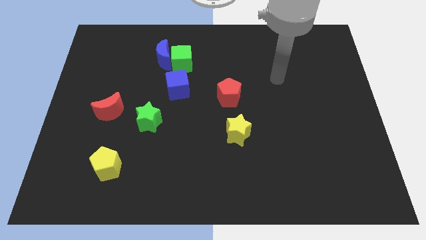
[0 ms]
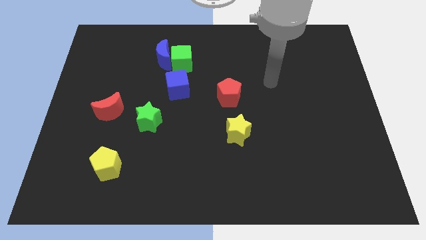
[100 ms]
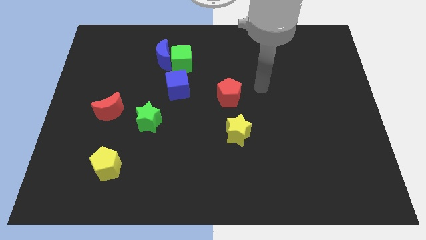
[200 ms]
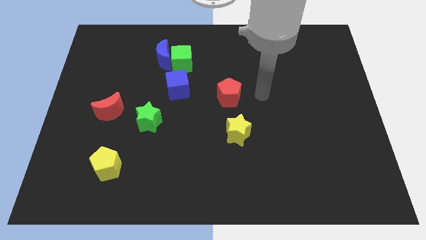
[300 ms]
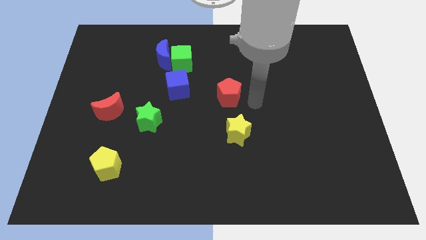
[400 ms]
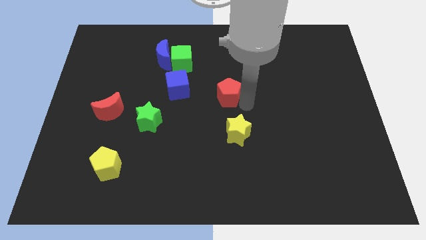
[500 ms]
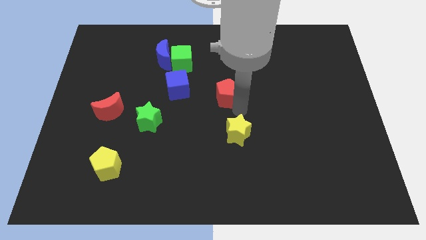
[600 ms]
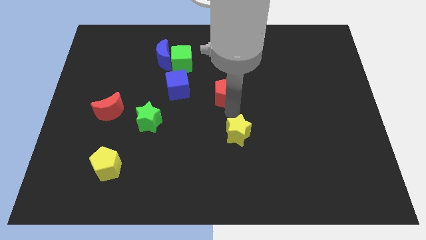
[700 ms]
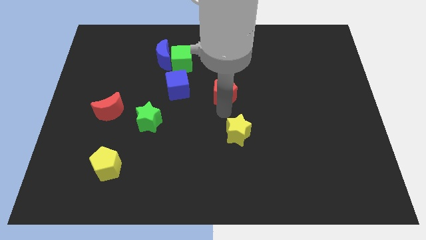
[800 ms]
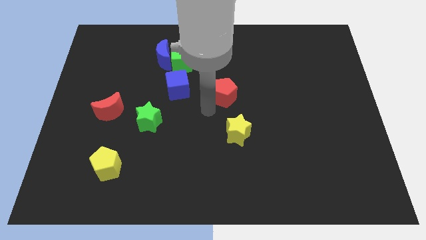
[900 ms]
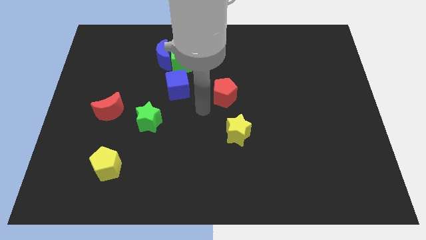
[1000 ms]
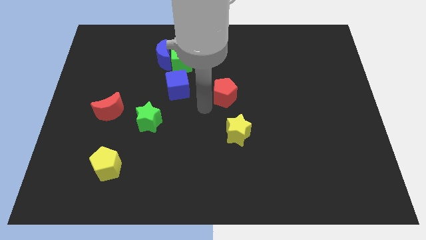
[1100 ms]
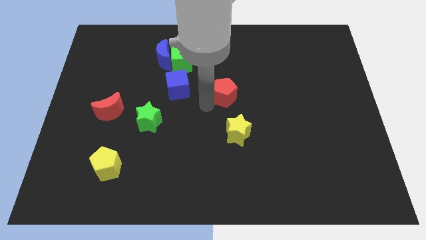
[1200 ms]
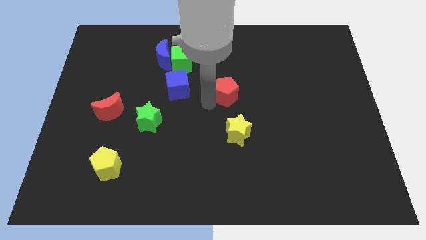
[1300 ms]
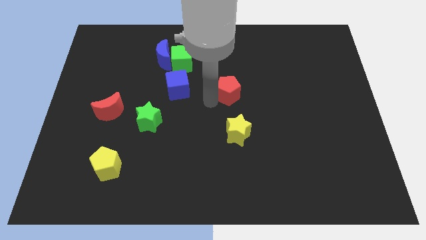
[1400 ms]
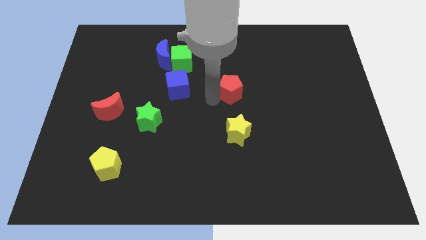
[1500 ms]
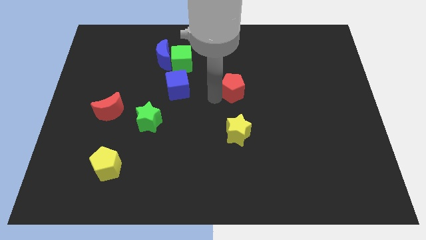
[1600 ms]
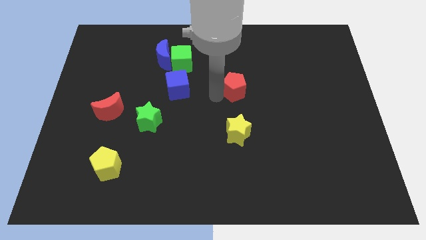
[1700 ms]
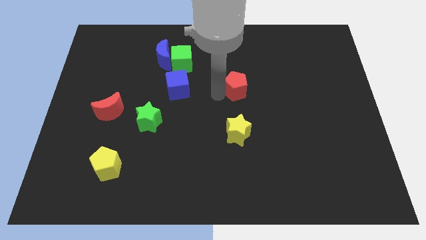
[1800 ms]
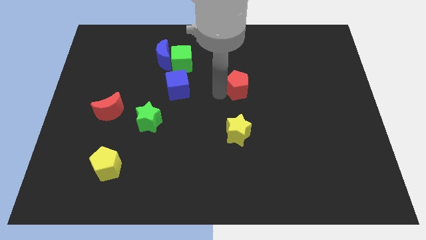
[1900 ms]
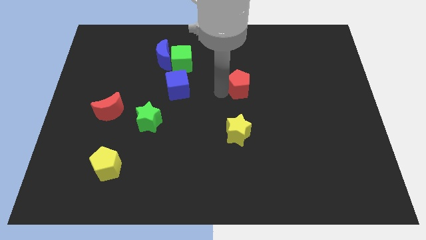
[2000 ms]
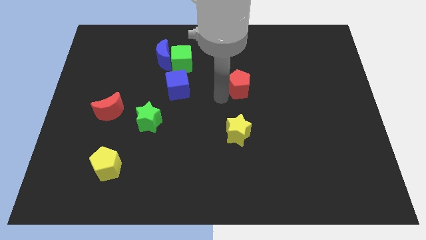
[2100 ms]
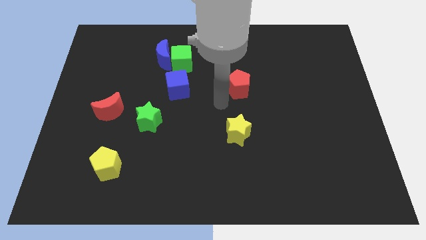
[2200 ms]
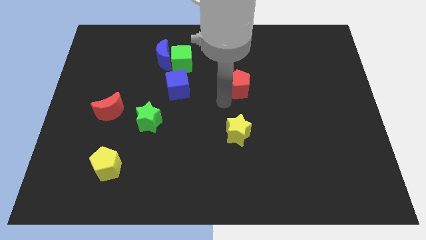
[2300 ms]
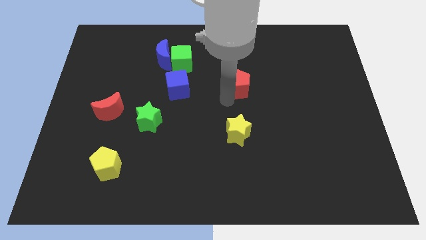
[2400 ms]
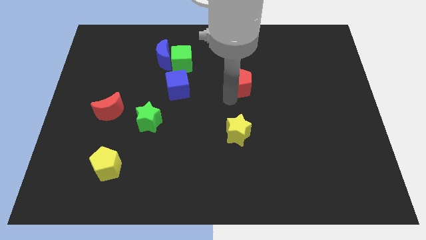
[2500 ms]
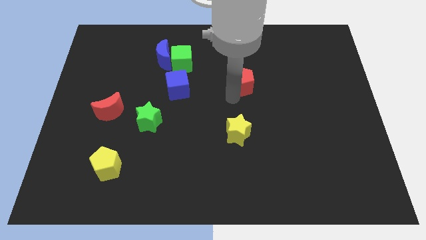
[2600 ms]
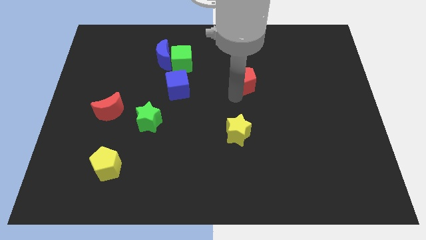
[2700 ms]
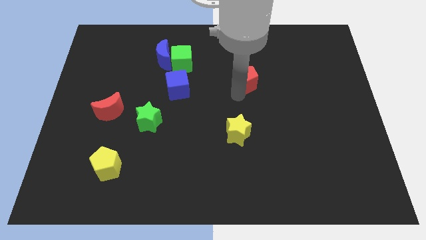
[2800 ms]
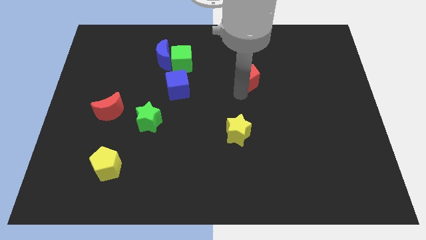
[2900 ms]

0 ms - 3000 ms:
push the red pentagon up and right a little bit

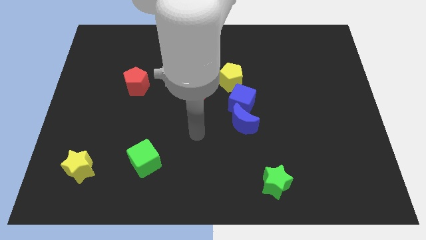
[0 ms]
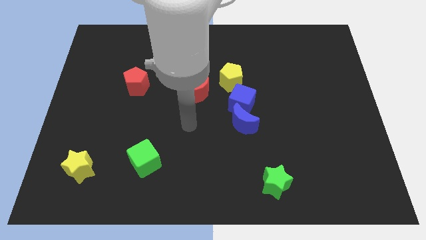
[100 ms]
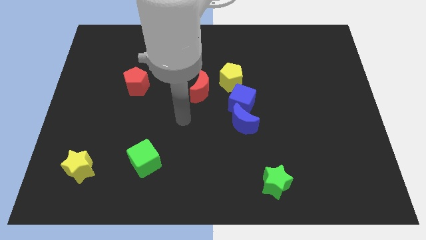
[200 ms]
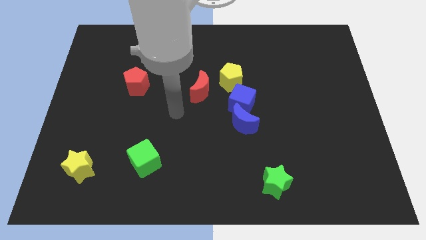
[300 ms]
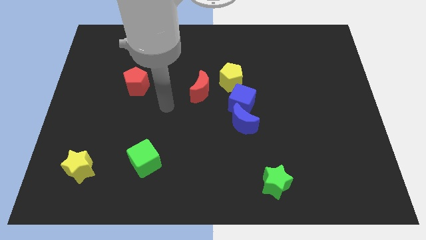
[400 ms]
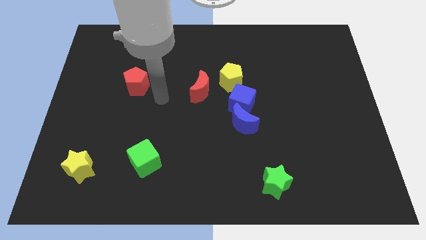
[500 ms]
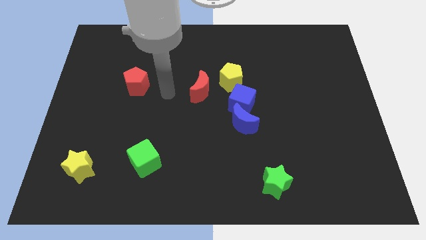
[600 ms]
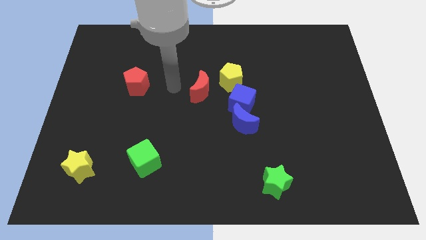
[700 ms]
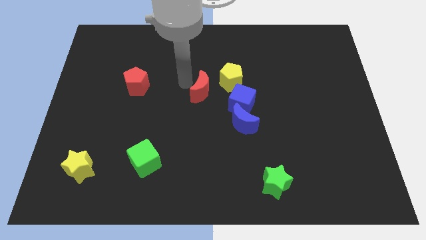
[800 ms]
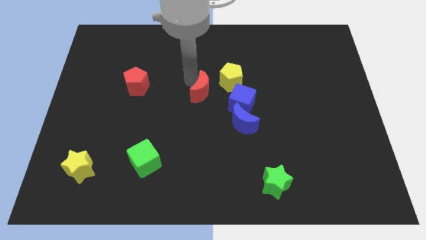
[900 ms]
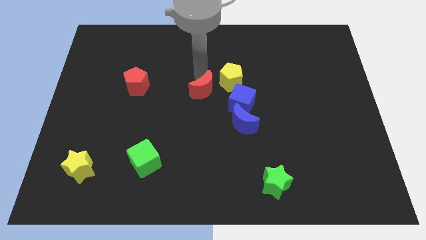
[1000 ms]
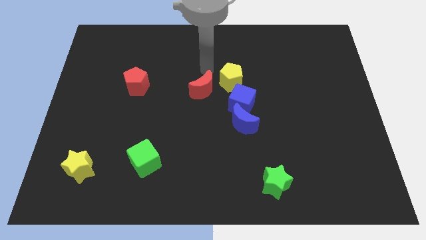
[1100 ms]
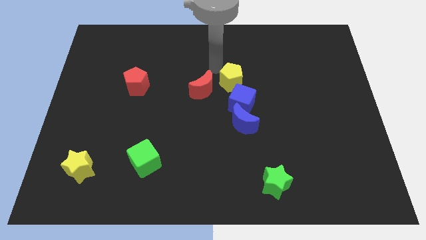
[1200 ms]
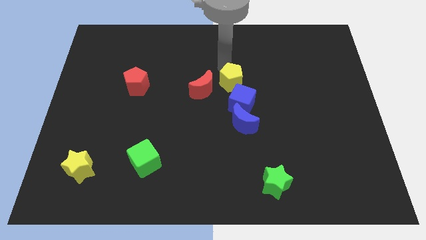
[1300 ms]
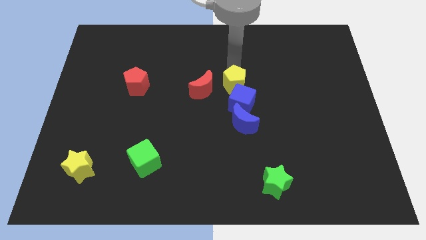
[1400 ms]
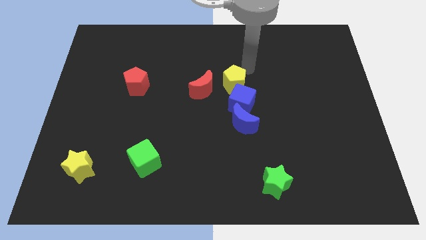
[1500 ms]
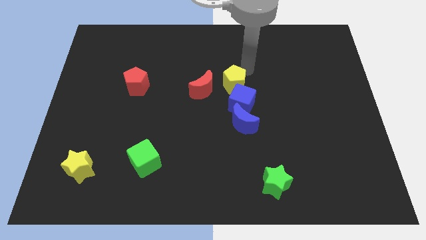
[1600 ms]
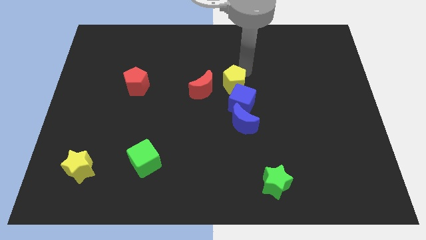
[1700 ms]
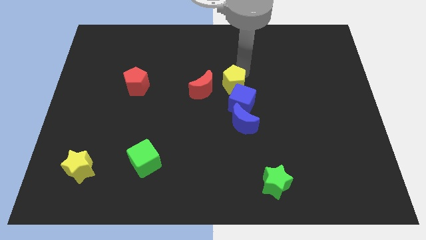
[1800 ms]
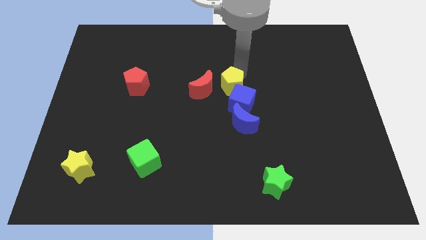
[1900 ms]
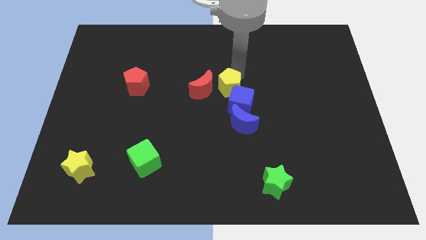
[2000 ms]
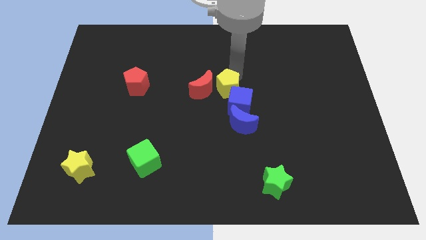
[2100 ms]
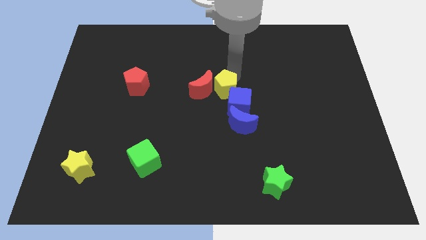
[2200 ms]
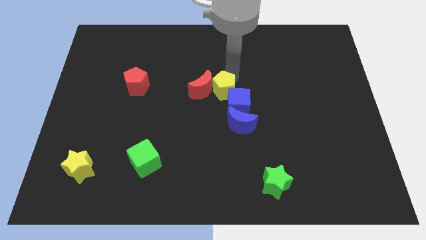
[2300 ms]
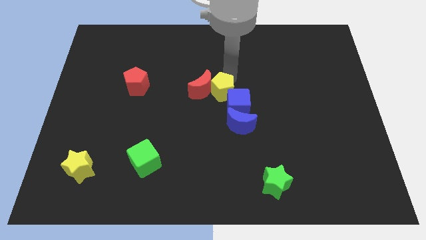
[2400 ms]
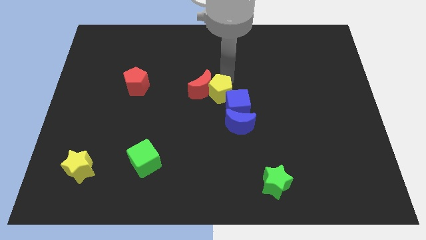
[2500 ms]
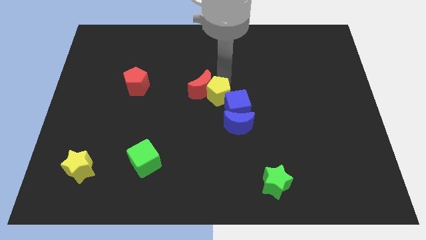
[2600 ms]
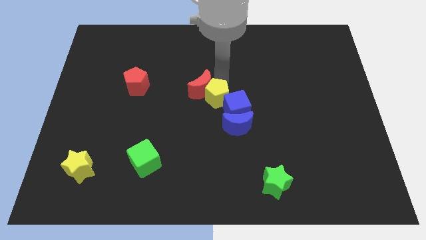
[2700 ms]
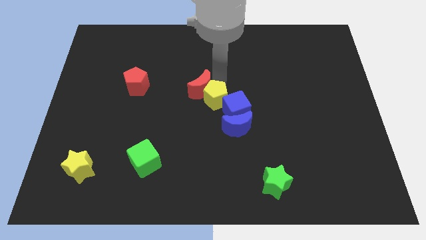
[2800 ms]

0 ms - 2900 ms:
move the yellow pentagon a little bit down and left

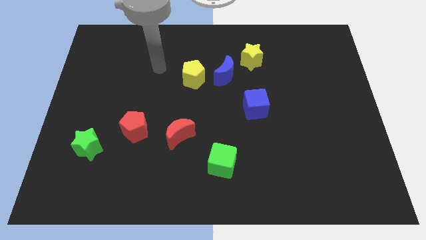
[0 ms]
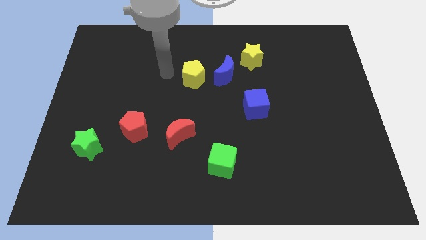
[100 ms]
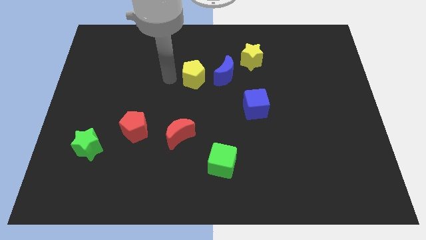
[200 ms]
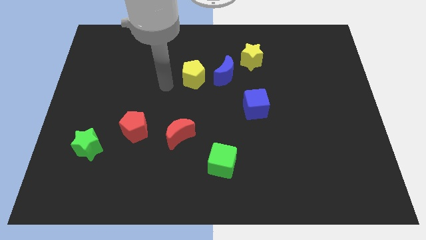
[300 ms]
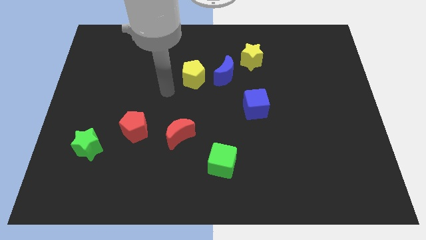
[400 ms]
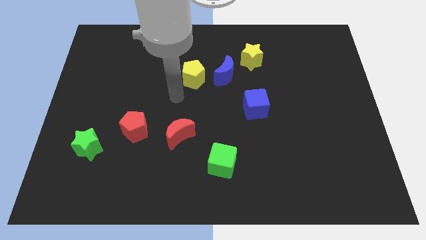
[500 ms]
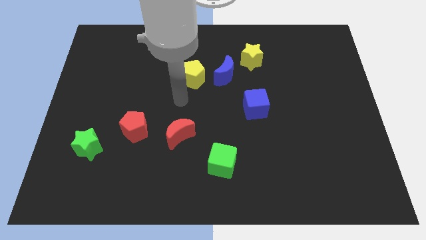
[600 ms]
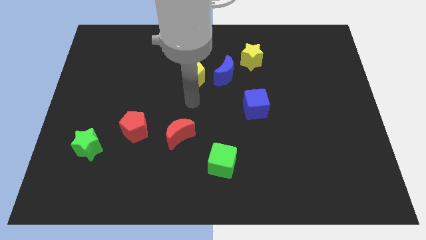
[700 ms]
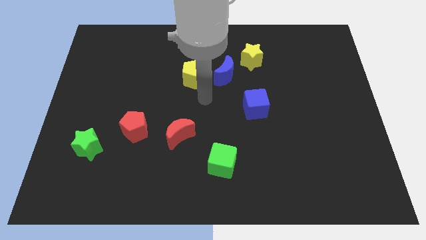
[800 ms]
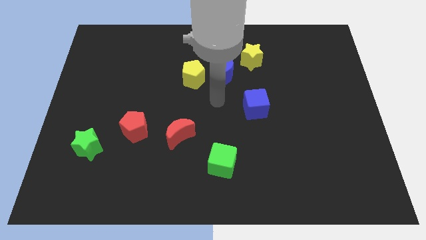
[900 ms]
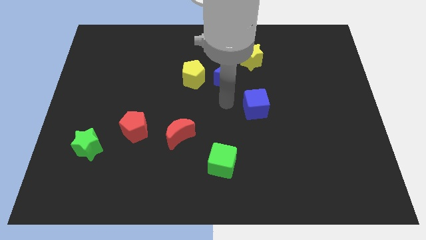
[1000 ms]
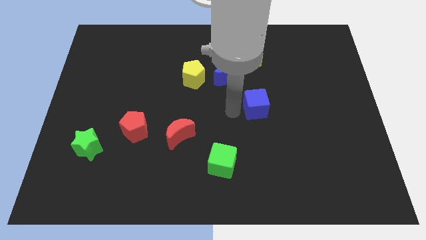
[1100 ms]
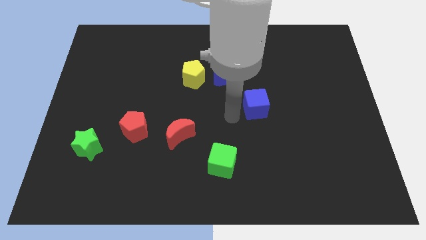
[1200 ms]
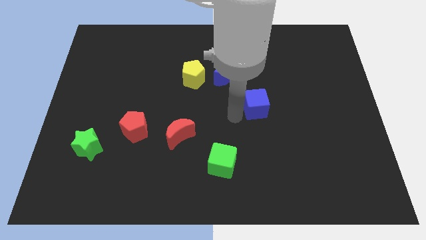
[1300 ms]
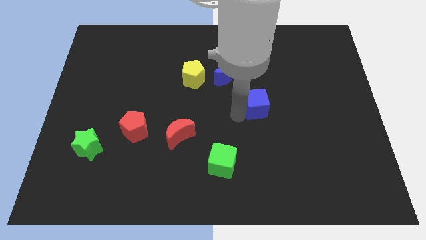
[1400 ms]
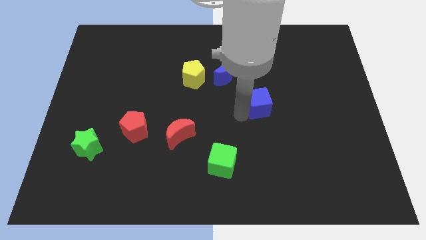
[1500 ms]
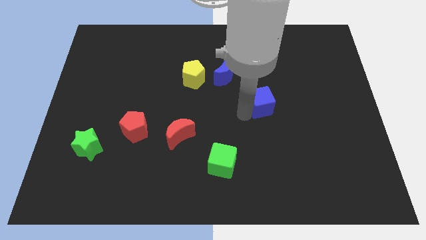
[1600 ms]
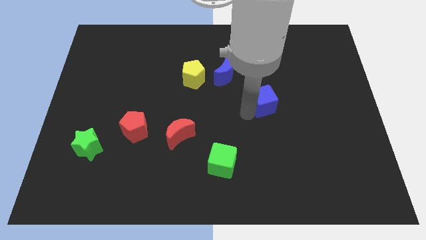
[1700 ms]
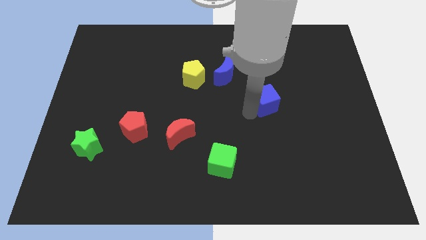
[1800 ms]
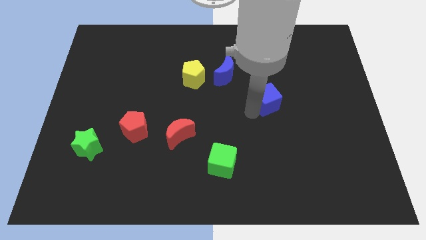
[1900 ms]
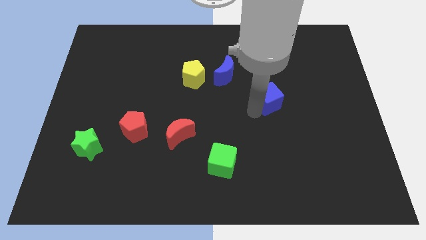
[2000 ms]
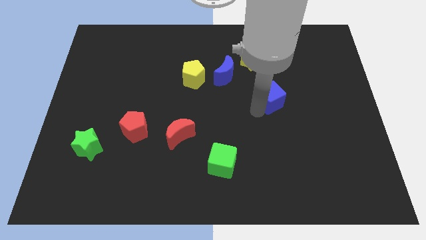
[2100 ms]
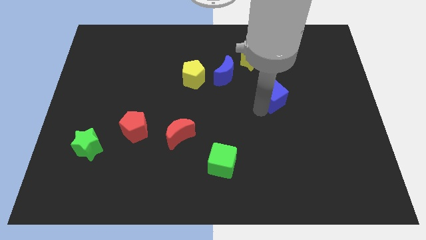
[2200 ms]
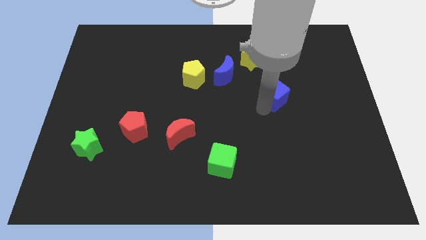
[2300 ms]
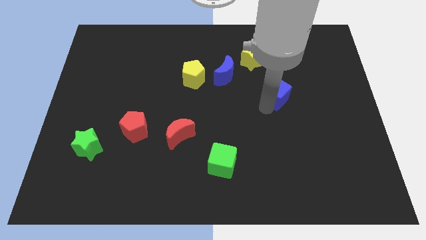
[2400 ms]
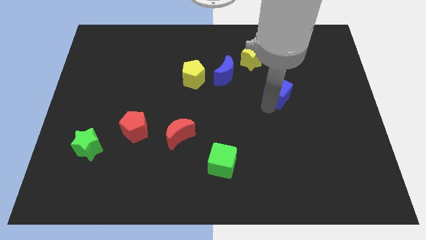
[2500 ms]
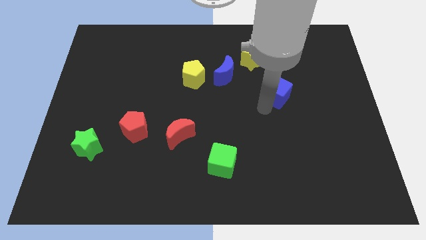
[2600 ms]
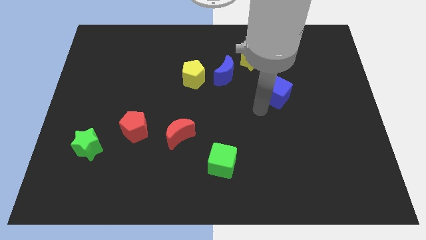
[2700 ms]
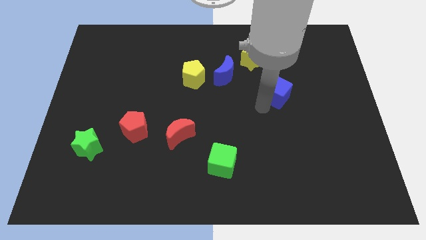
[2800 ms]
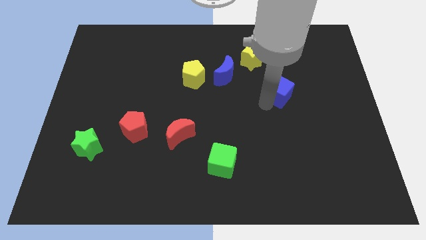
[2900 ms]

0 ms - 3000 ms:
move the blue cube slightly diagonally up and right
